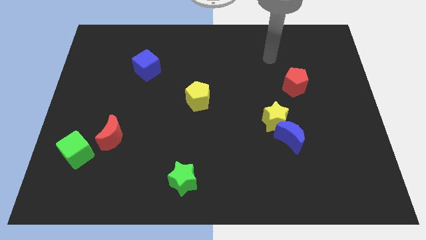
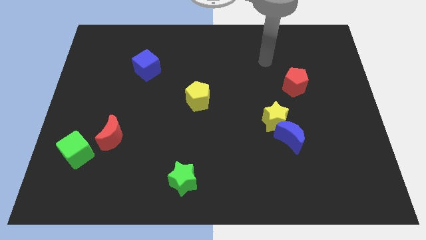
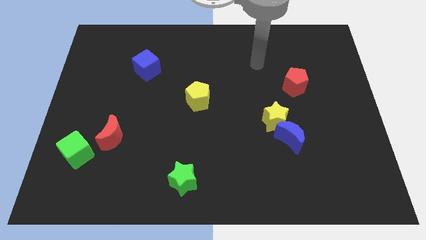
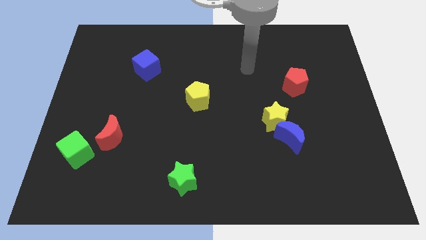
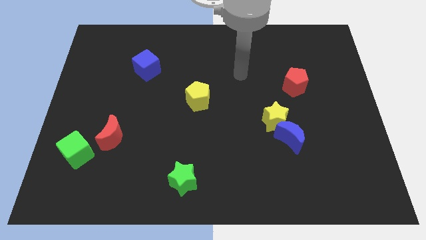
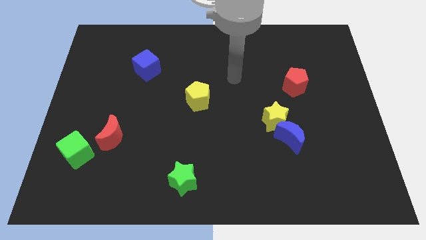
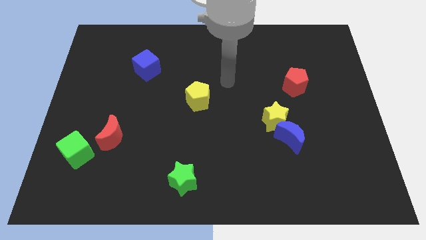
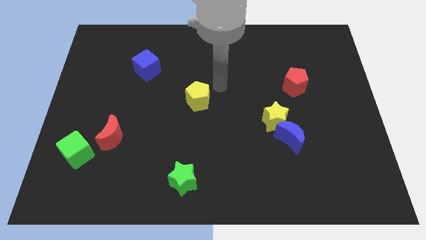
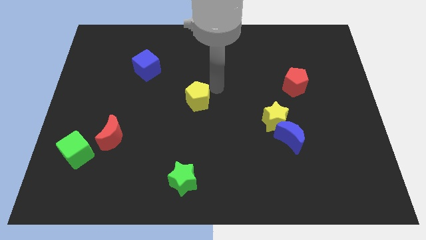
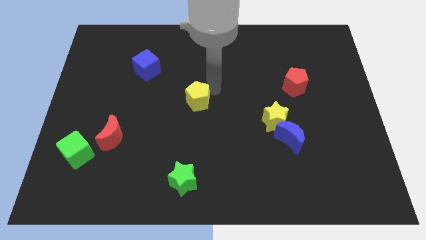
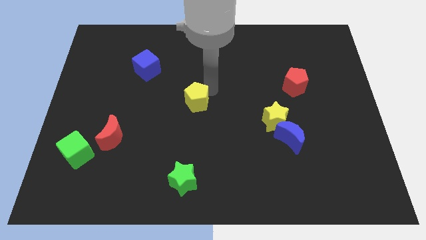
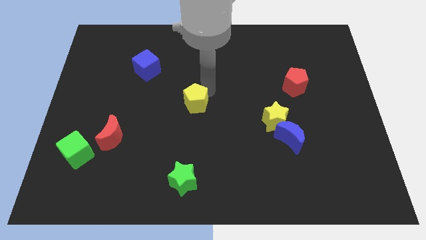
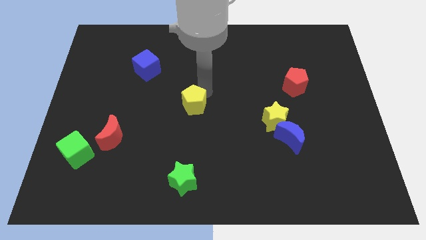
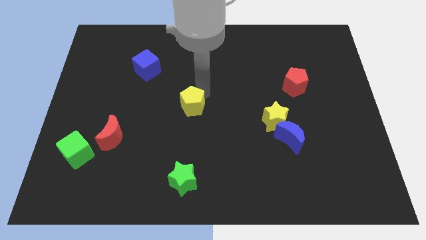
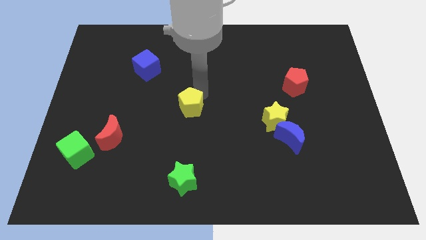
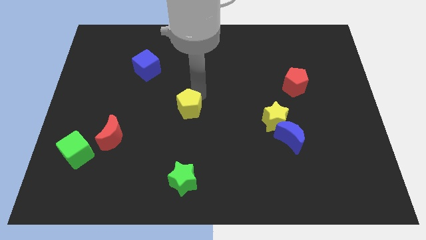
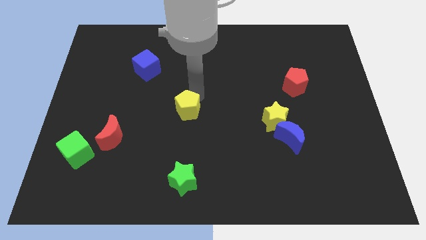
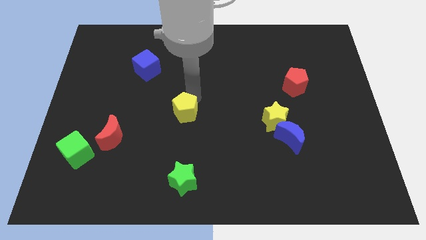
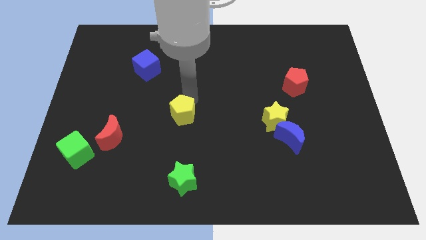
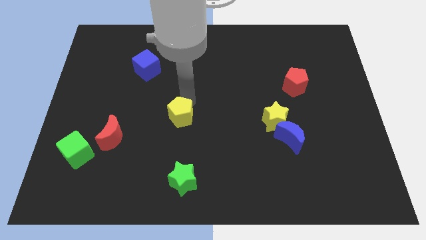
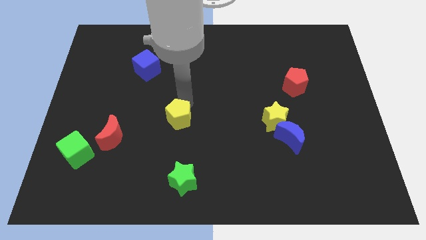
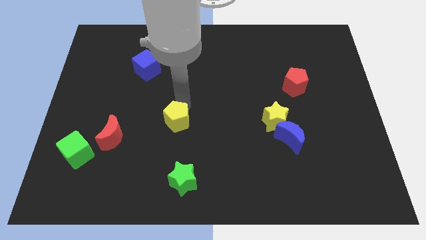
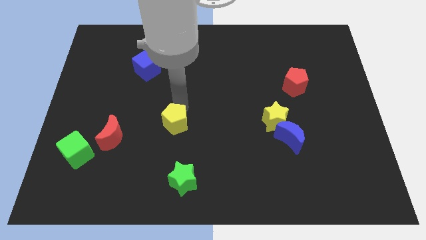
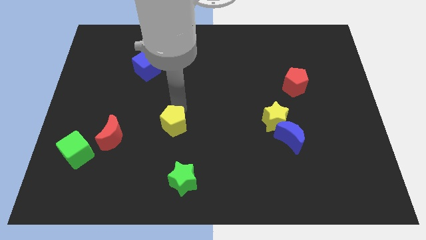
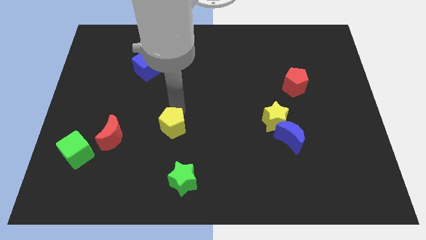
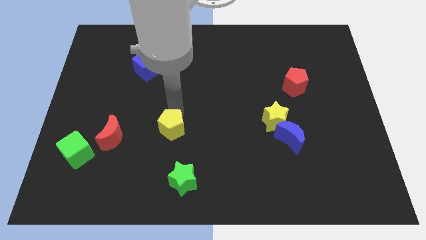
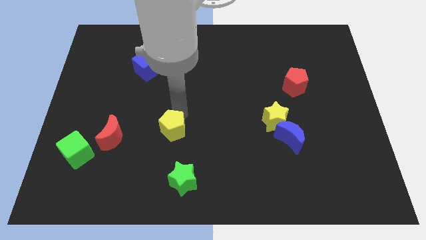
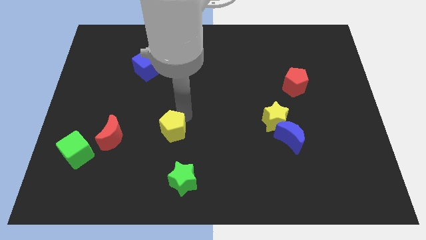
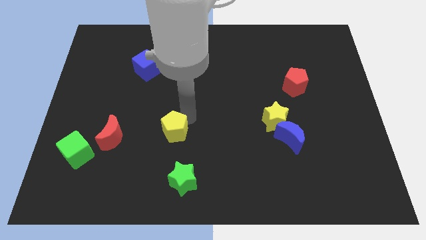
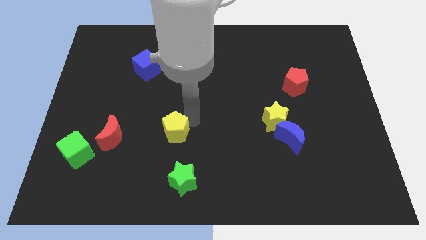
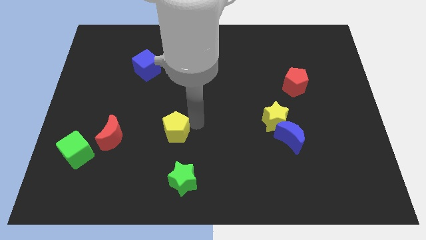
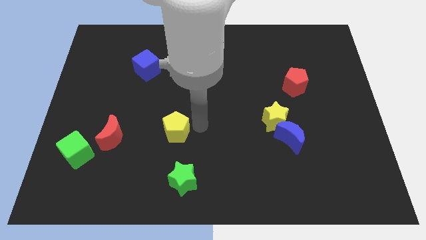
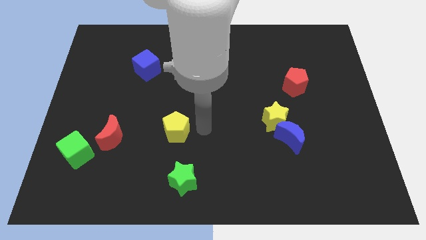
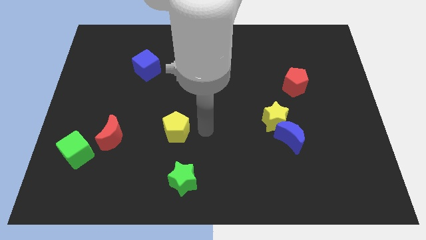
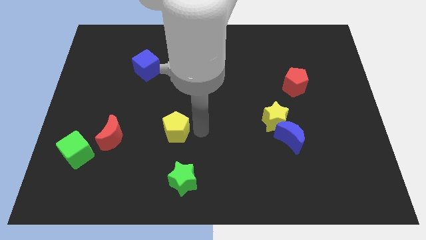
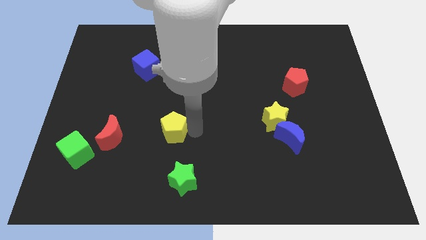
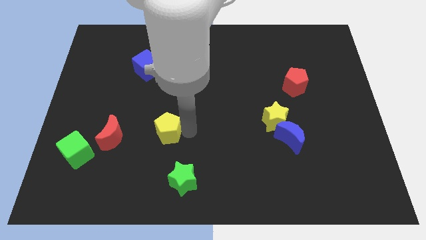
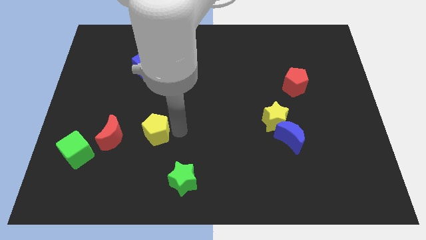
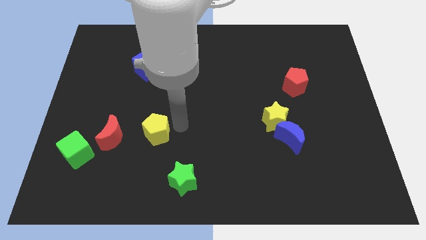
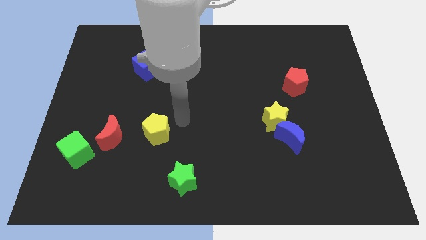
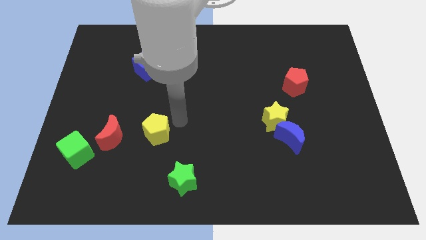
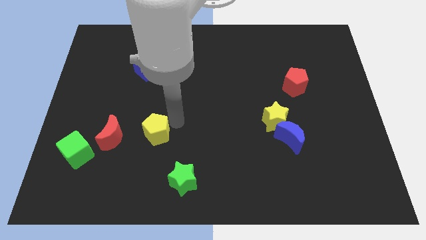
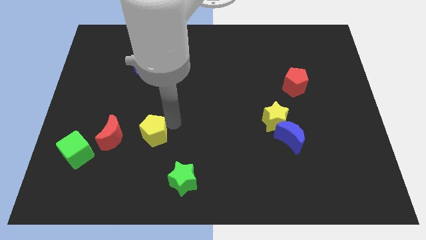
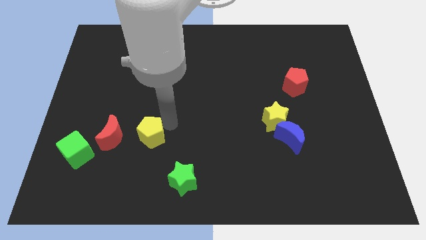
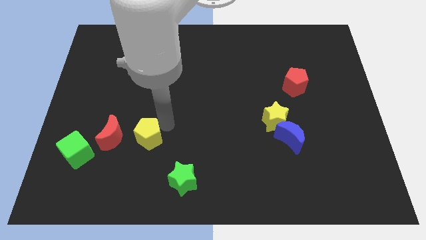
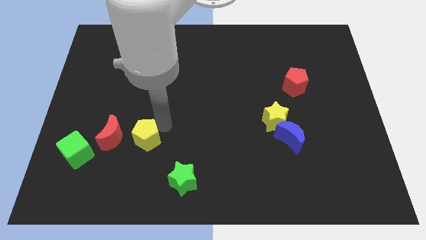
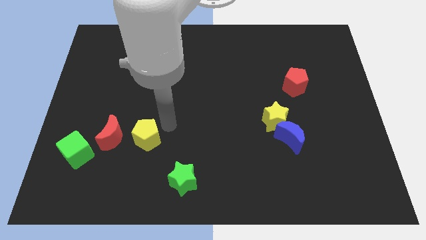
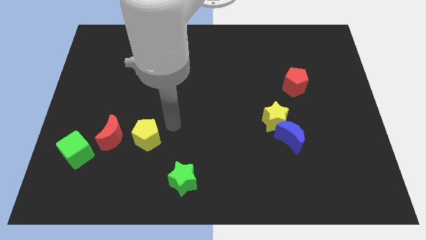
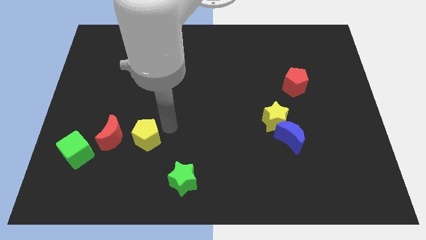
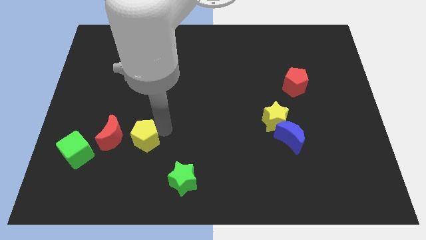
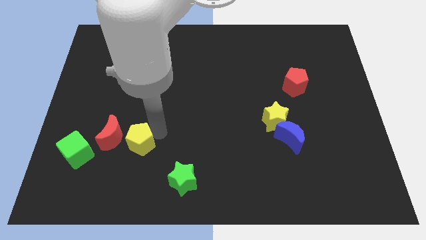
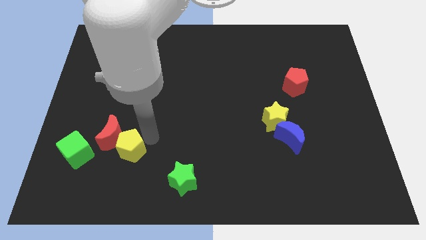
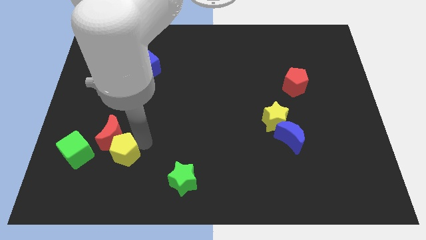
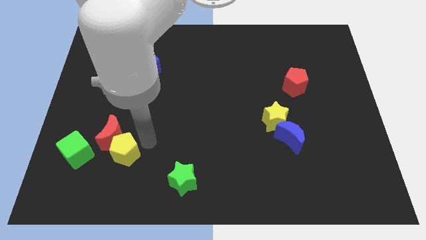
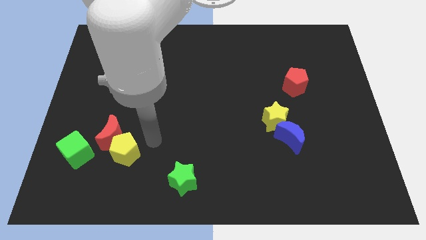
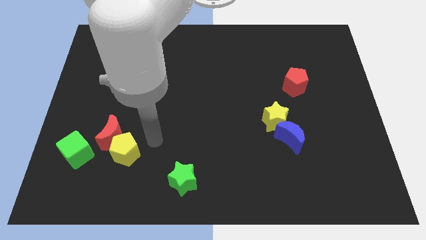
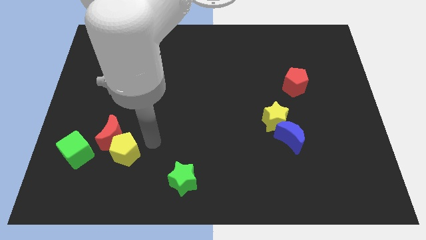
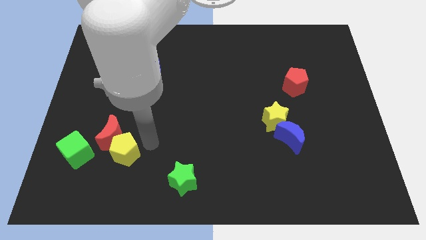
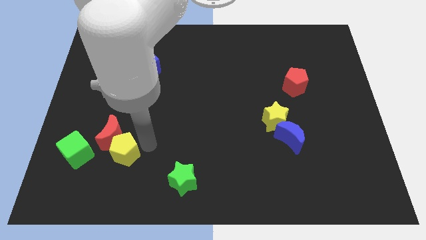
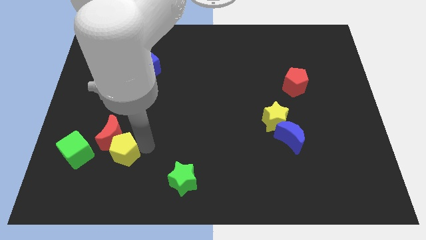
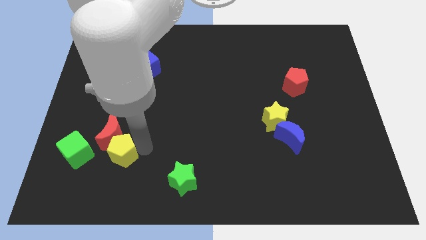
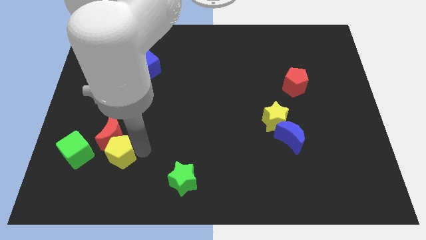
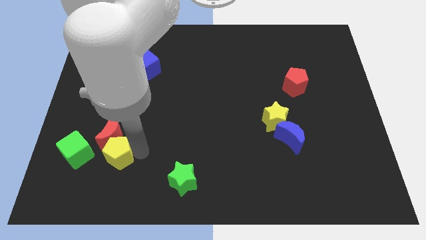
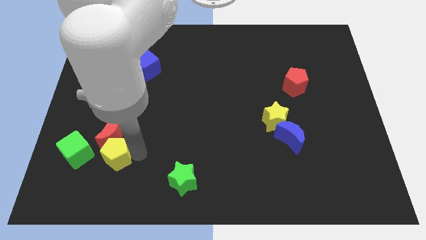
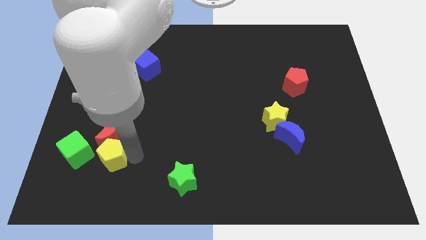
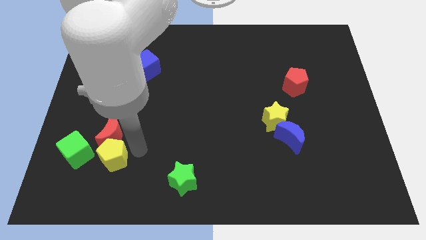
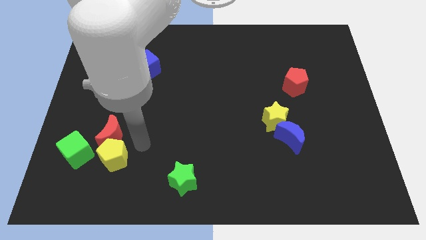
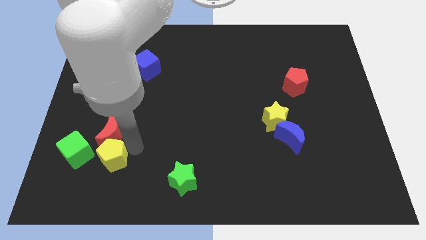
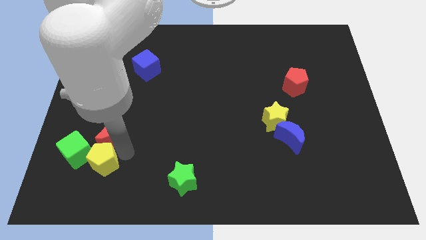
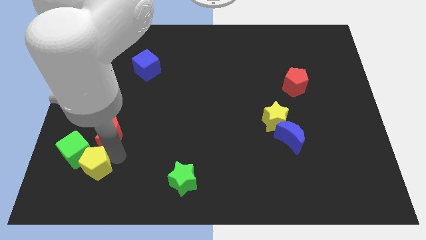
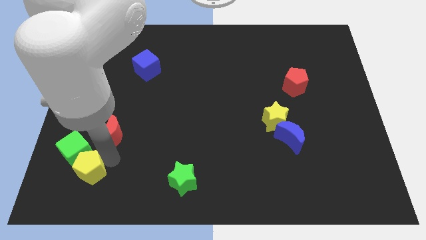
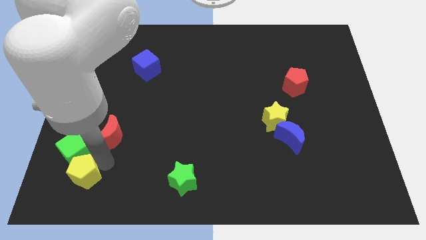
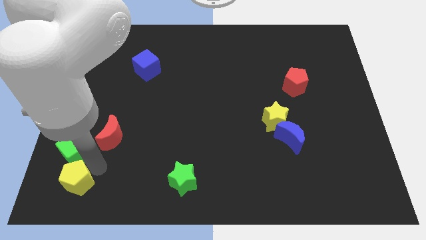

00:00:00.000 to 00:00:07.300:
push the yellow pentagon to the bottom left corner
